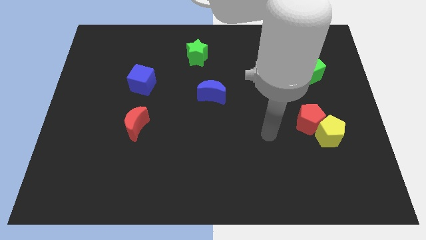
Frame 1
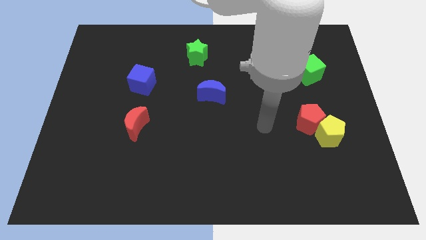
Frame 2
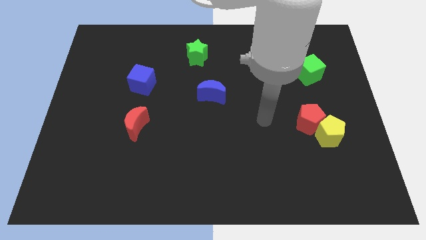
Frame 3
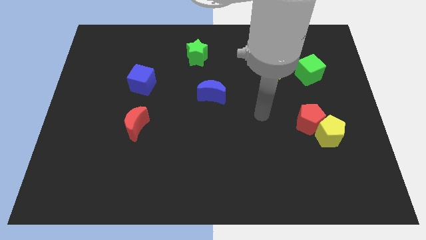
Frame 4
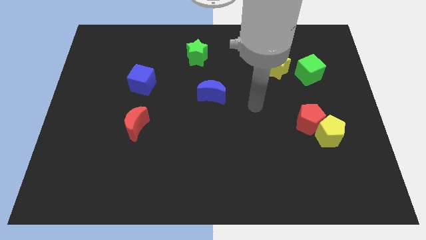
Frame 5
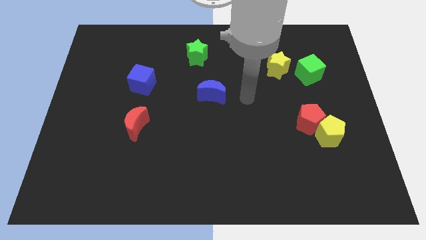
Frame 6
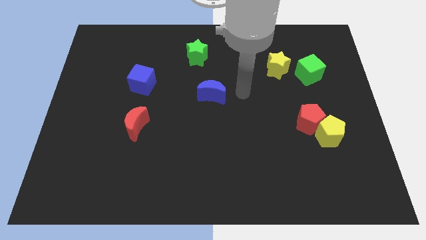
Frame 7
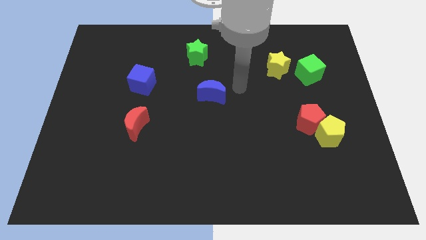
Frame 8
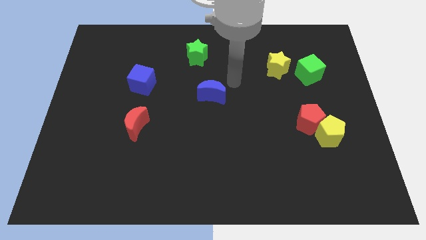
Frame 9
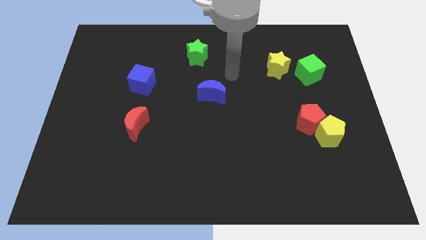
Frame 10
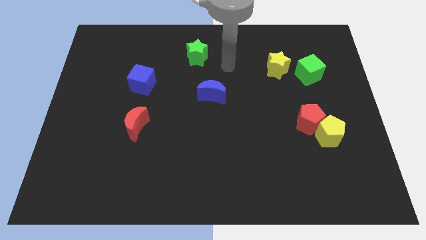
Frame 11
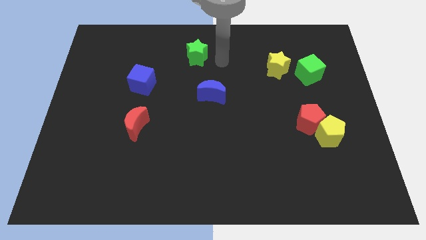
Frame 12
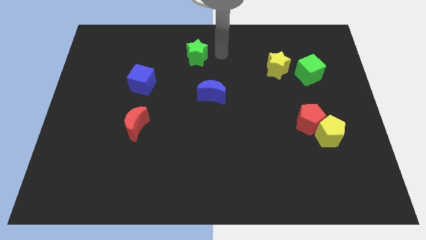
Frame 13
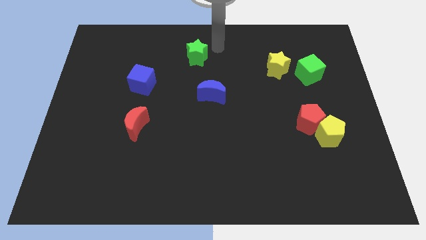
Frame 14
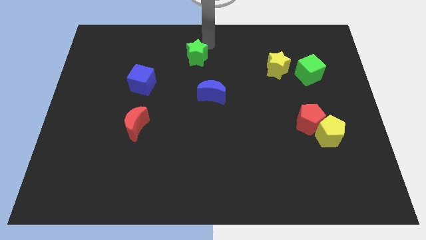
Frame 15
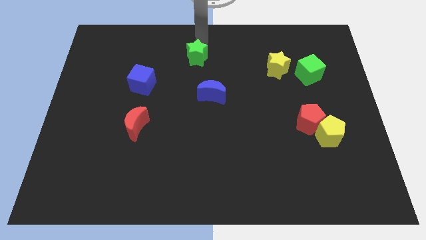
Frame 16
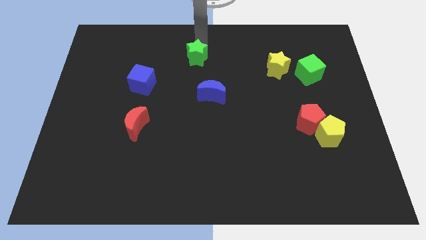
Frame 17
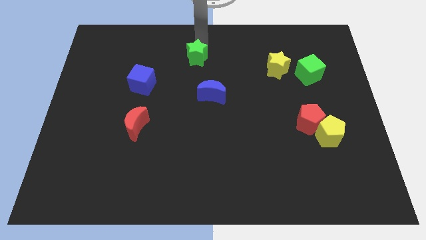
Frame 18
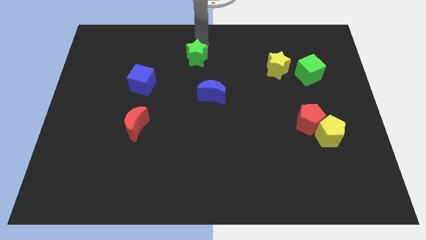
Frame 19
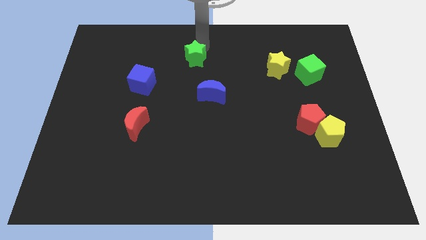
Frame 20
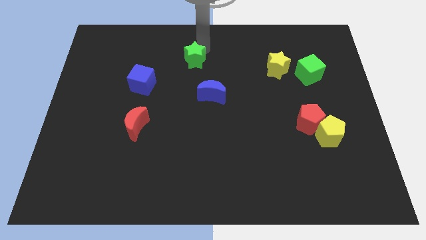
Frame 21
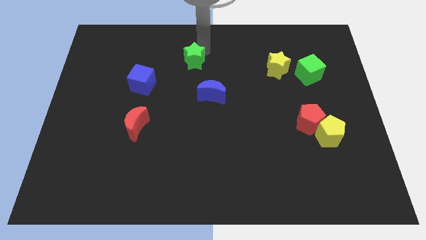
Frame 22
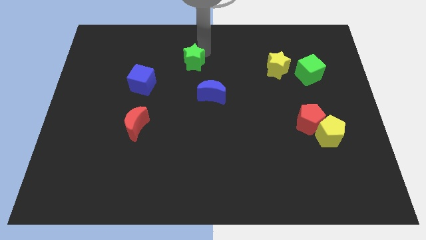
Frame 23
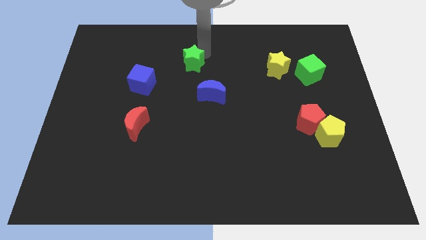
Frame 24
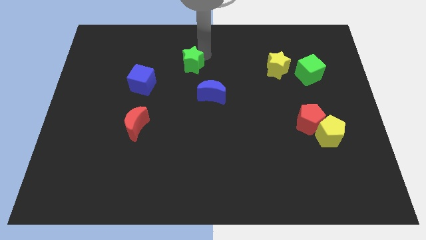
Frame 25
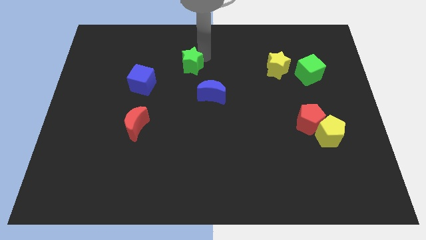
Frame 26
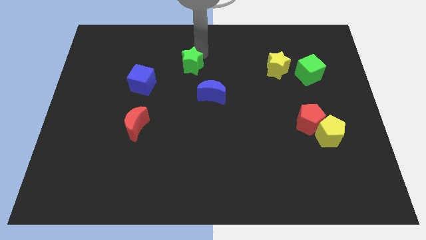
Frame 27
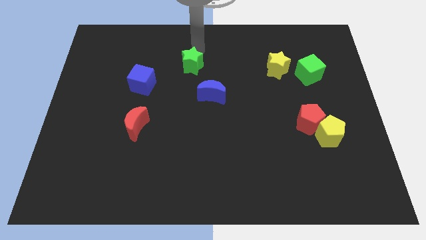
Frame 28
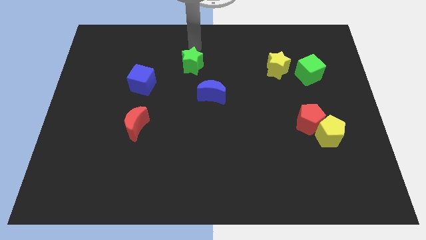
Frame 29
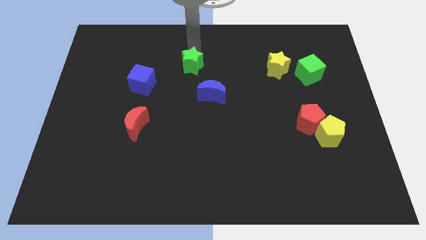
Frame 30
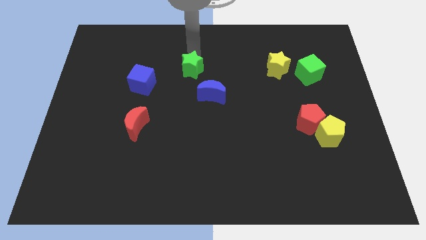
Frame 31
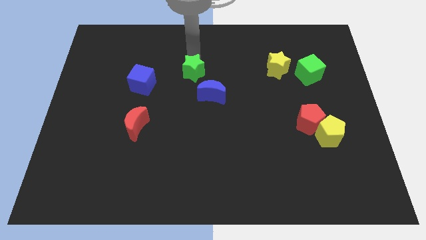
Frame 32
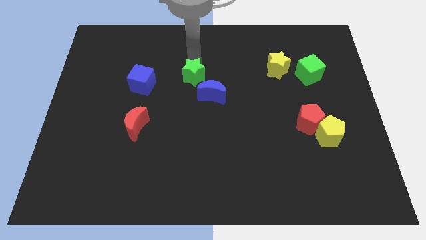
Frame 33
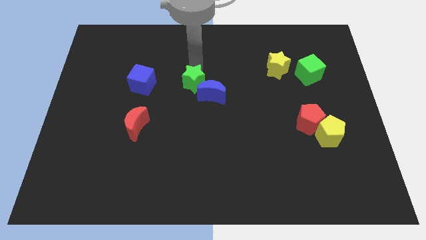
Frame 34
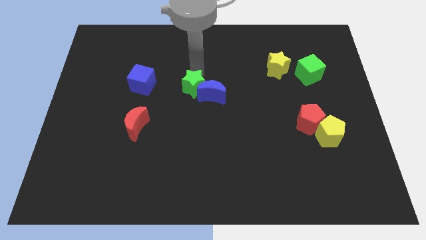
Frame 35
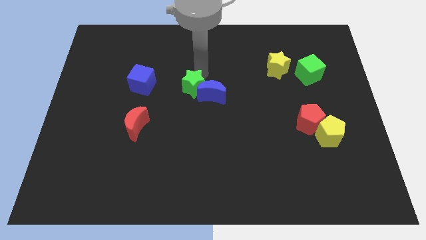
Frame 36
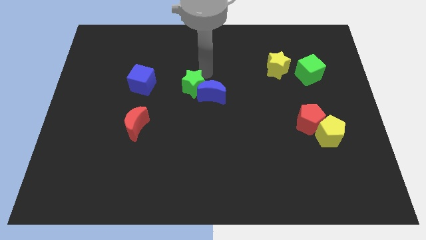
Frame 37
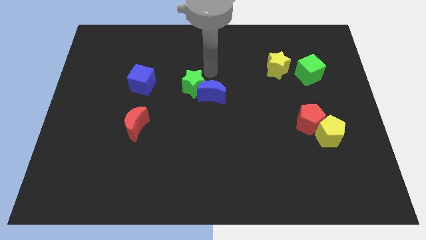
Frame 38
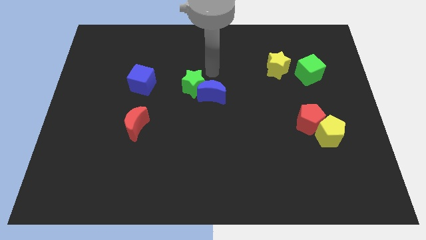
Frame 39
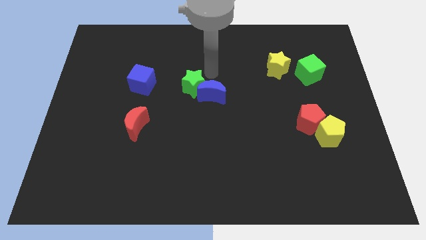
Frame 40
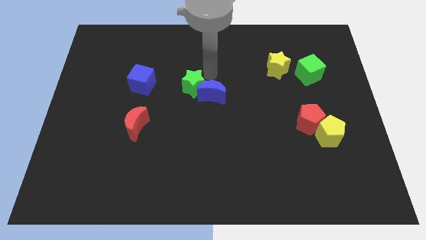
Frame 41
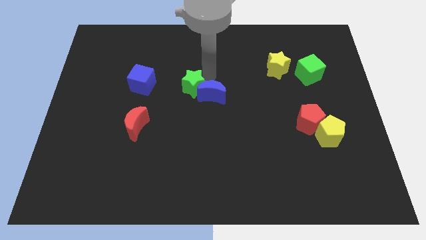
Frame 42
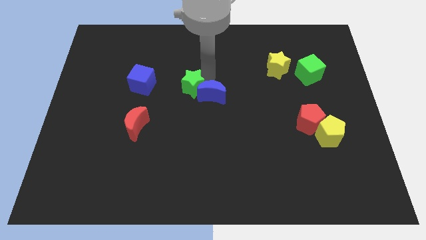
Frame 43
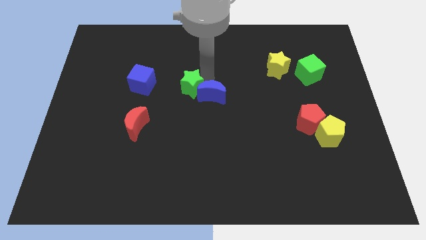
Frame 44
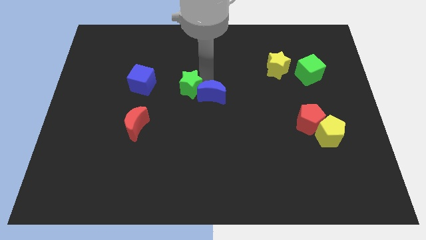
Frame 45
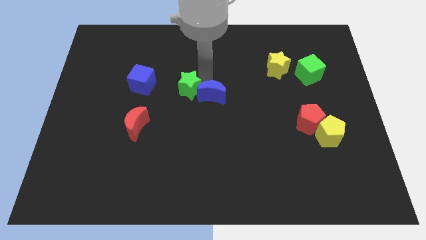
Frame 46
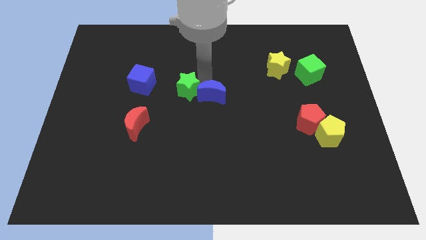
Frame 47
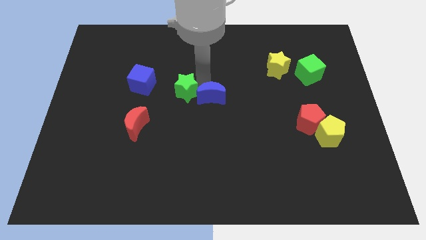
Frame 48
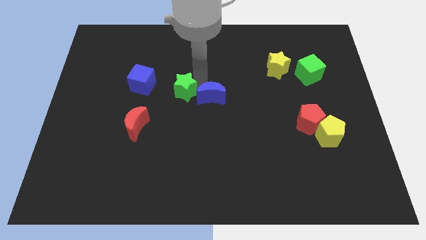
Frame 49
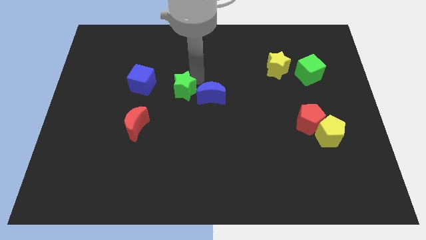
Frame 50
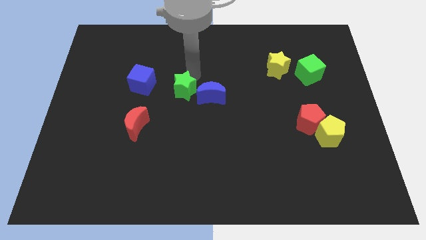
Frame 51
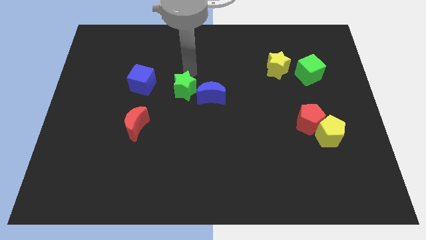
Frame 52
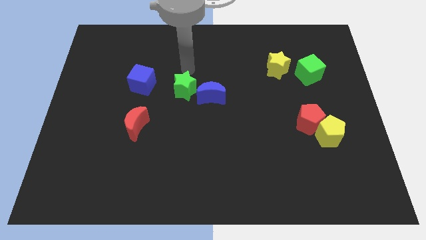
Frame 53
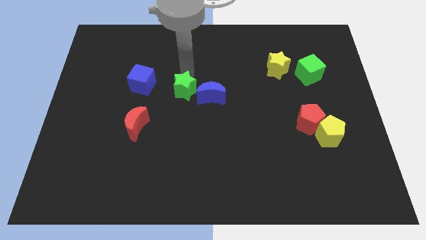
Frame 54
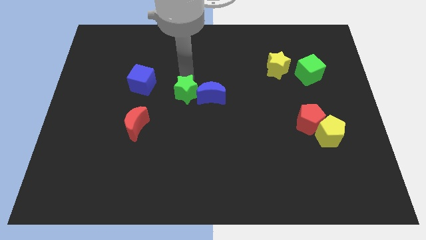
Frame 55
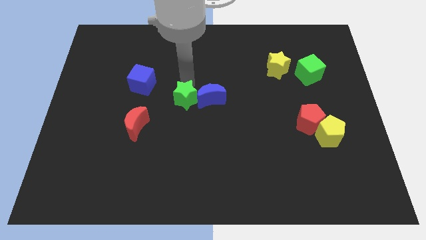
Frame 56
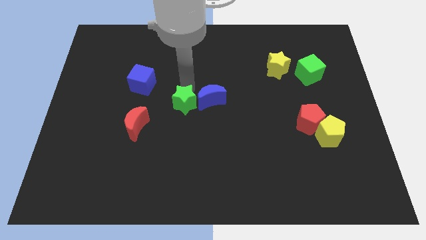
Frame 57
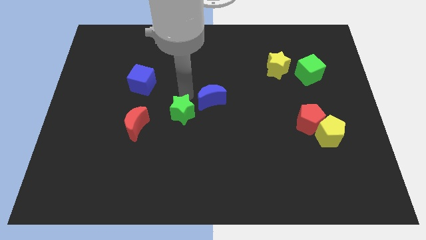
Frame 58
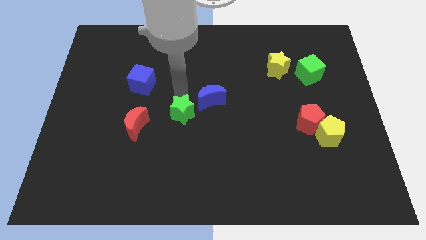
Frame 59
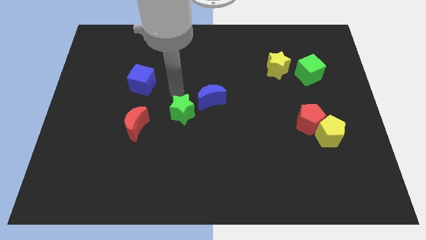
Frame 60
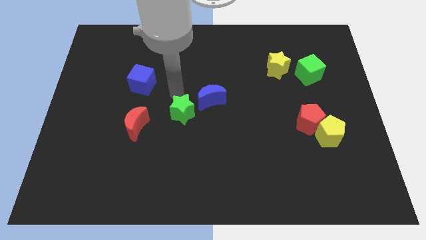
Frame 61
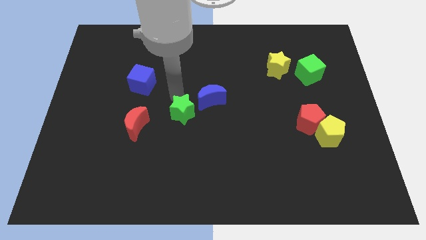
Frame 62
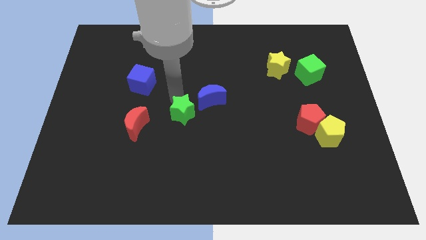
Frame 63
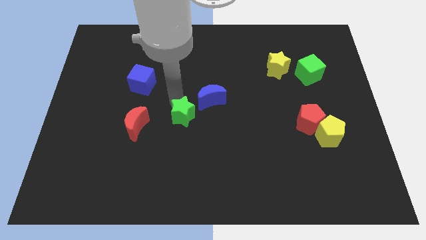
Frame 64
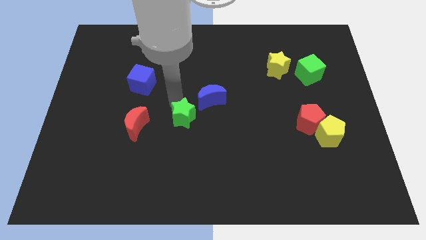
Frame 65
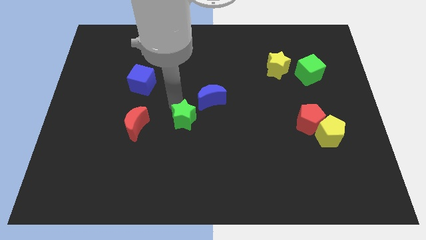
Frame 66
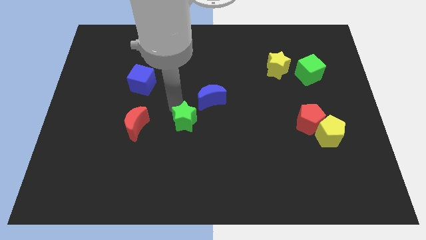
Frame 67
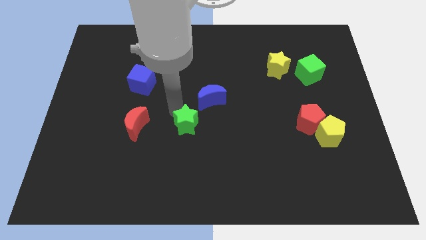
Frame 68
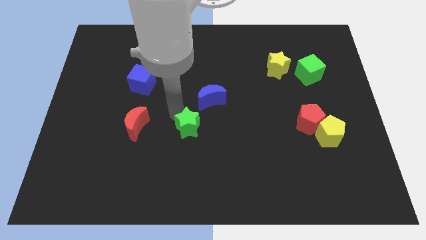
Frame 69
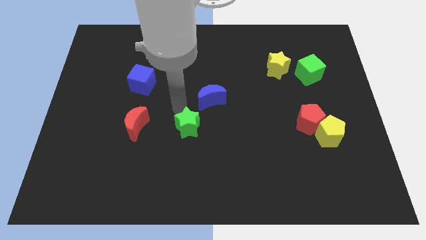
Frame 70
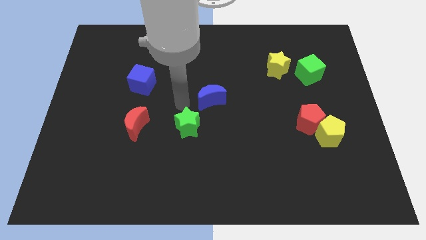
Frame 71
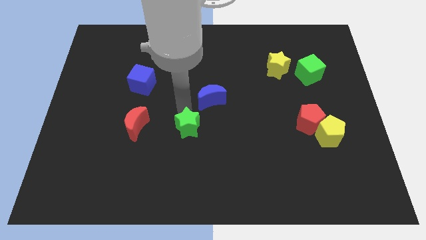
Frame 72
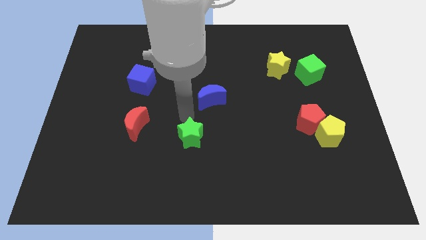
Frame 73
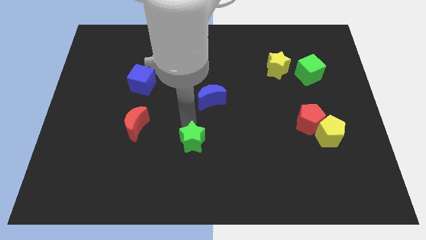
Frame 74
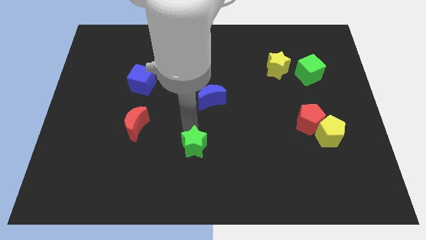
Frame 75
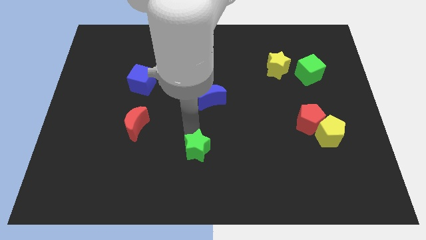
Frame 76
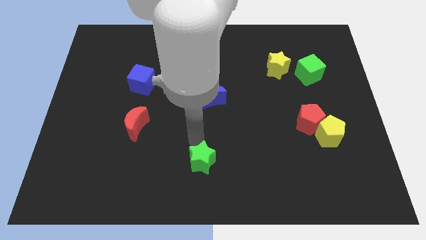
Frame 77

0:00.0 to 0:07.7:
slide the green star to the bottom side

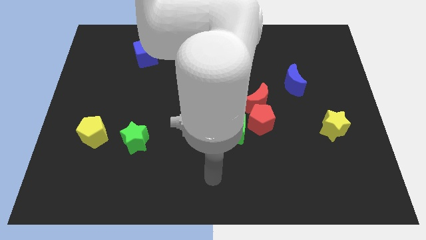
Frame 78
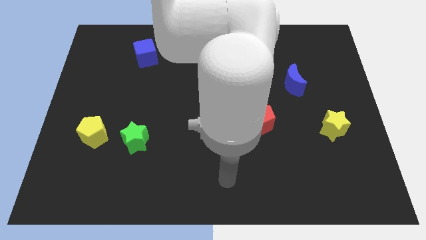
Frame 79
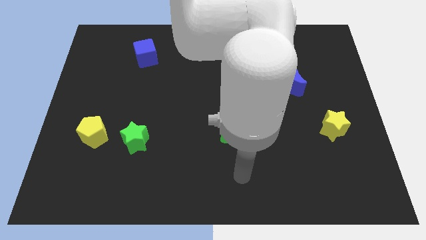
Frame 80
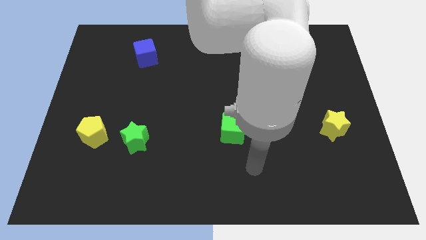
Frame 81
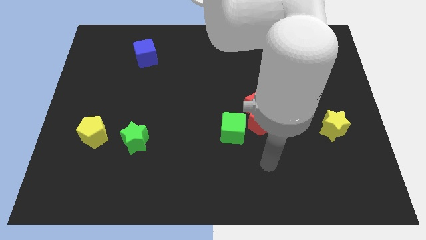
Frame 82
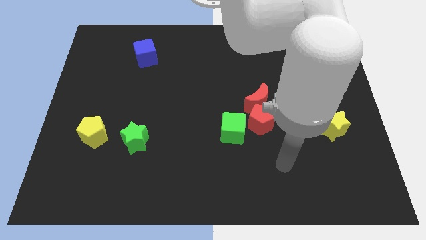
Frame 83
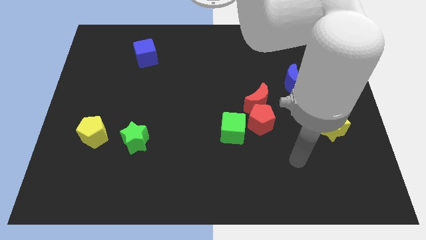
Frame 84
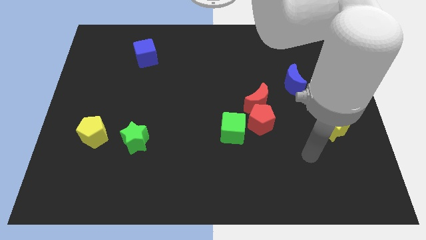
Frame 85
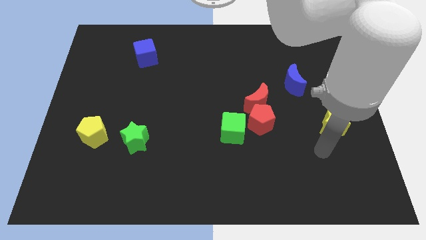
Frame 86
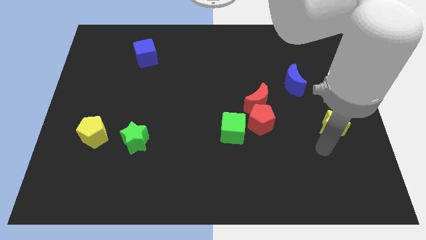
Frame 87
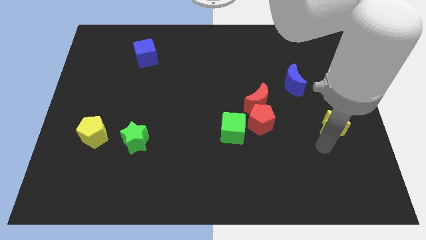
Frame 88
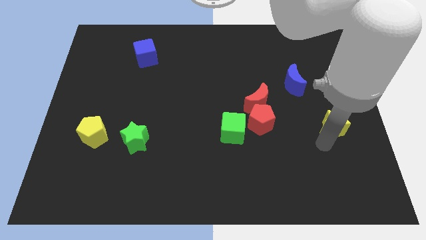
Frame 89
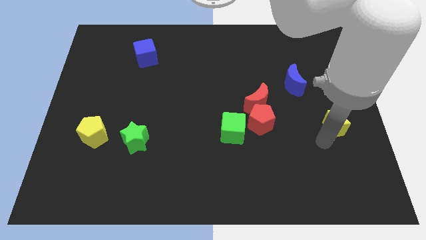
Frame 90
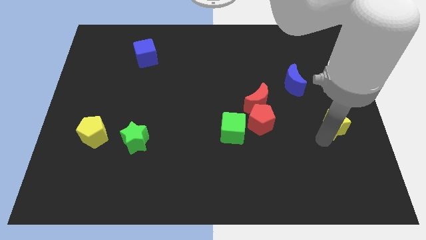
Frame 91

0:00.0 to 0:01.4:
put the yellow star to the right side of the board
